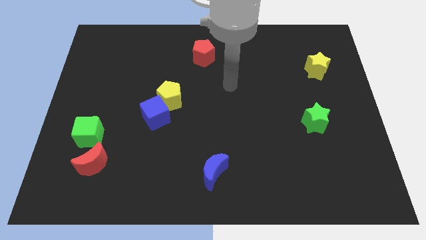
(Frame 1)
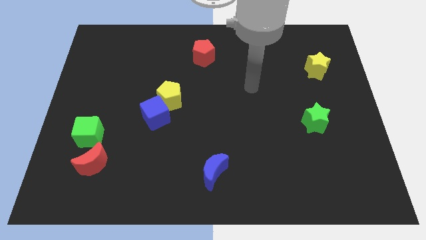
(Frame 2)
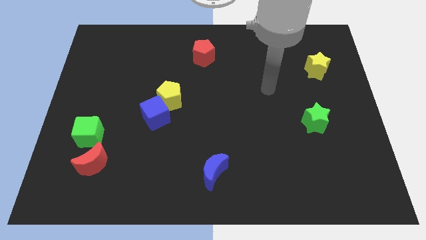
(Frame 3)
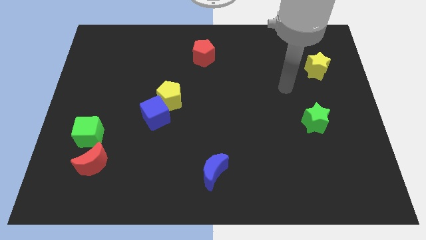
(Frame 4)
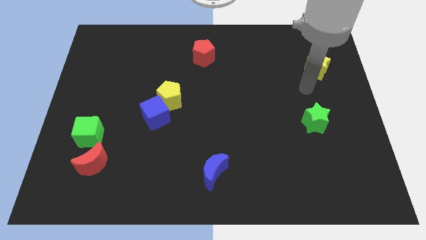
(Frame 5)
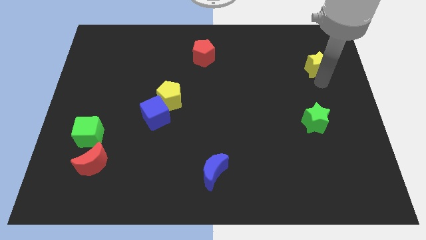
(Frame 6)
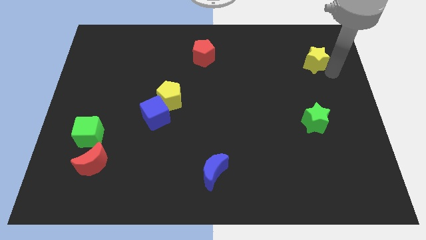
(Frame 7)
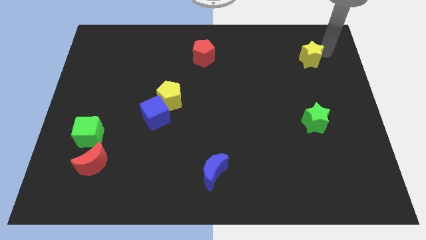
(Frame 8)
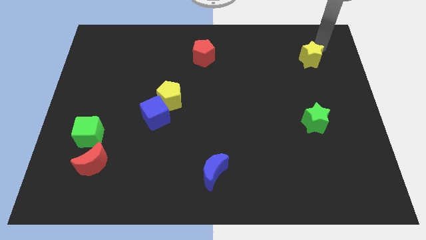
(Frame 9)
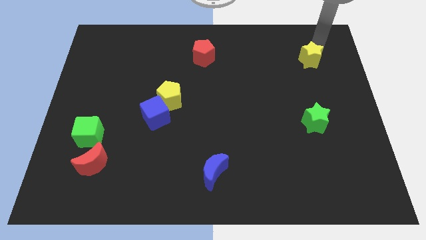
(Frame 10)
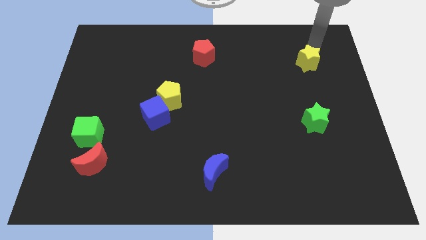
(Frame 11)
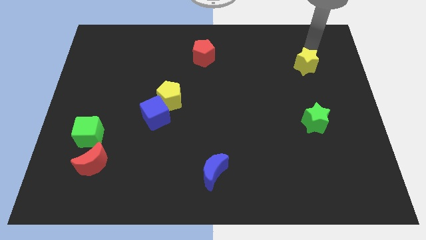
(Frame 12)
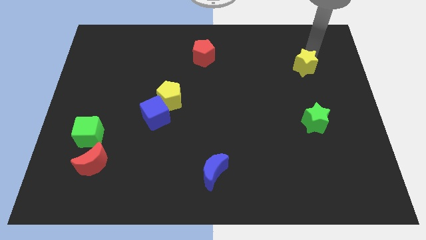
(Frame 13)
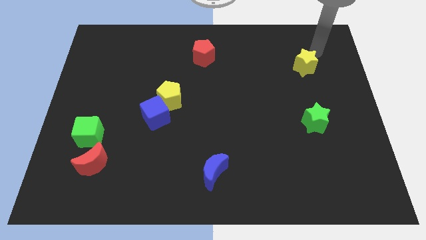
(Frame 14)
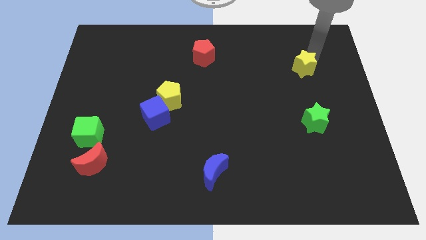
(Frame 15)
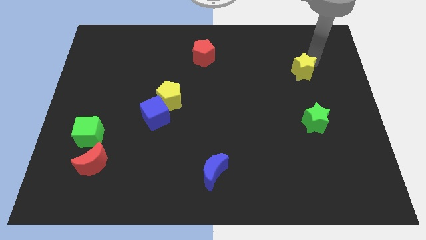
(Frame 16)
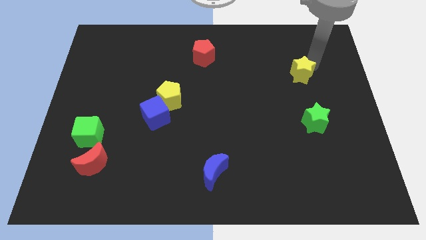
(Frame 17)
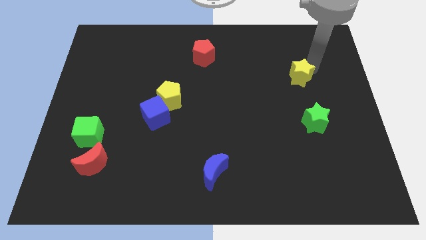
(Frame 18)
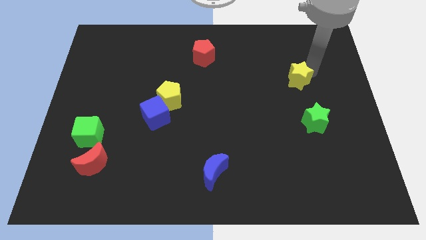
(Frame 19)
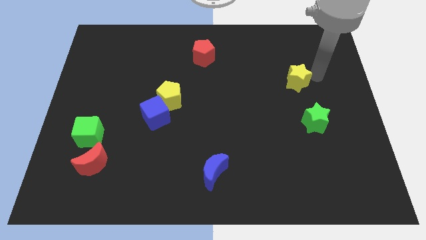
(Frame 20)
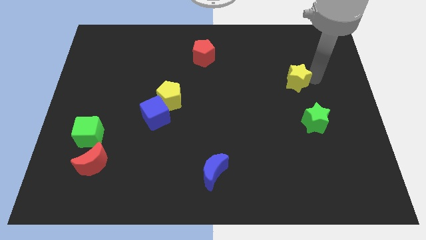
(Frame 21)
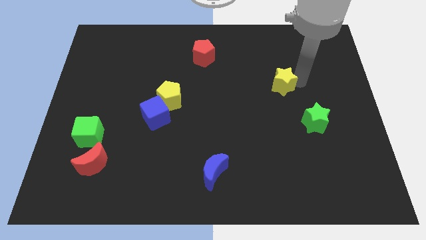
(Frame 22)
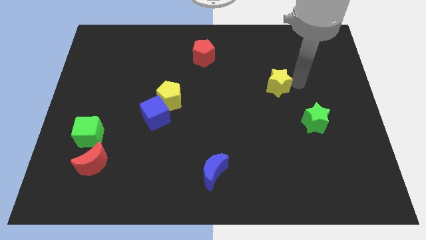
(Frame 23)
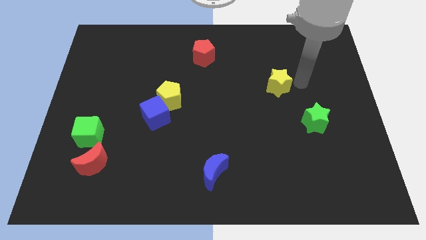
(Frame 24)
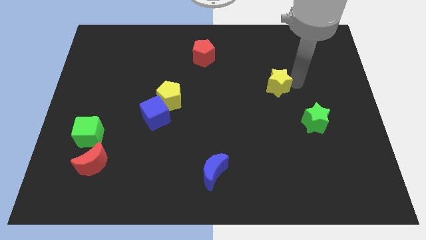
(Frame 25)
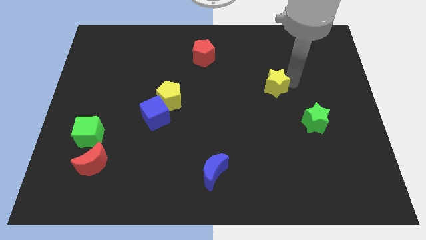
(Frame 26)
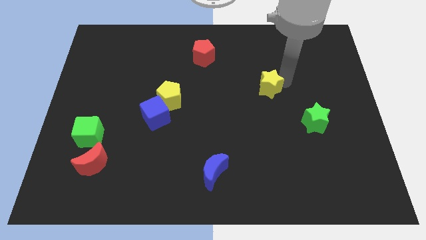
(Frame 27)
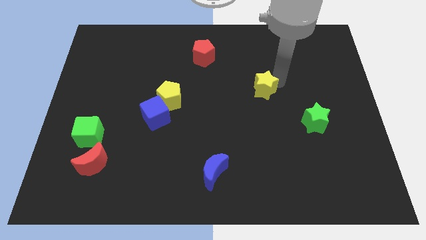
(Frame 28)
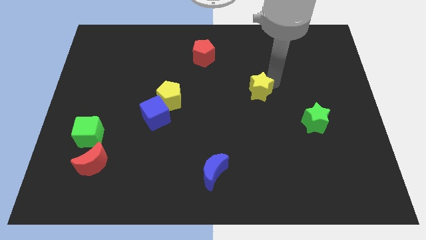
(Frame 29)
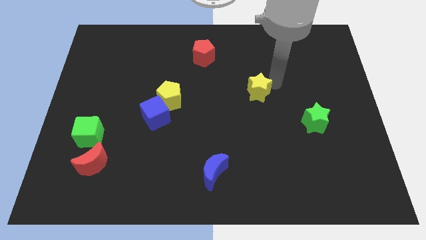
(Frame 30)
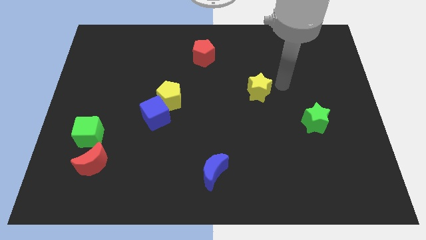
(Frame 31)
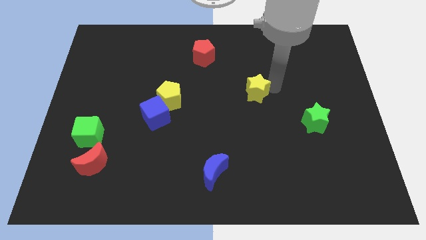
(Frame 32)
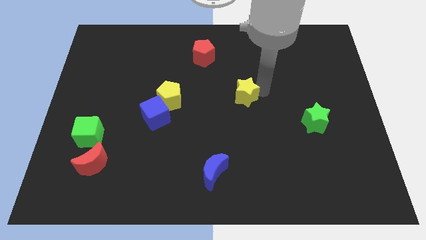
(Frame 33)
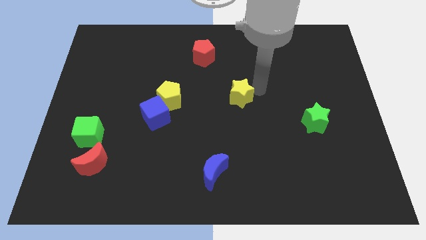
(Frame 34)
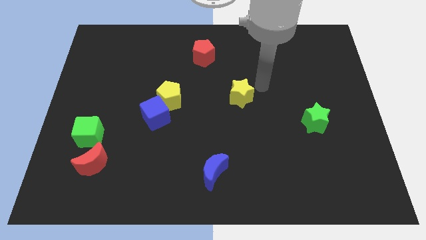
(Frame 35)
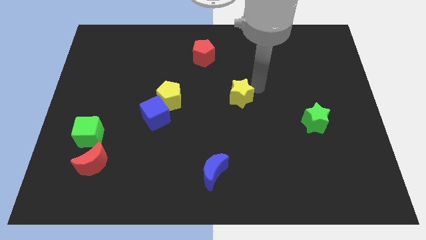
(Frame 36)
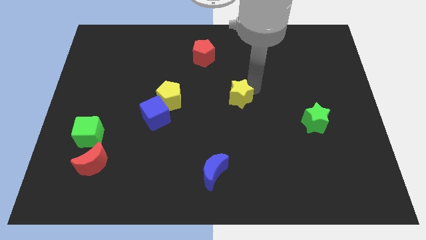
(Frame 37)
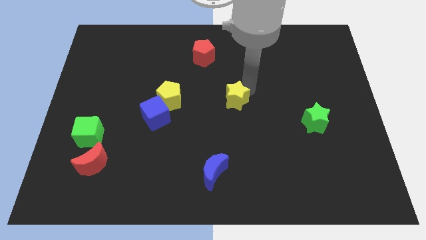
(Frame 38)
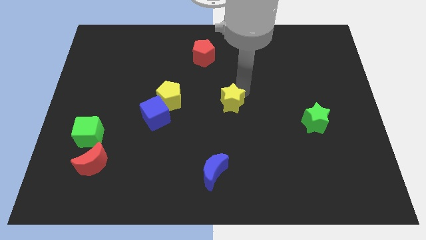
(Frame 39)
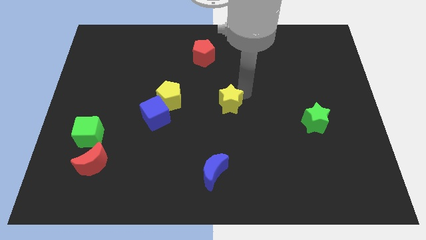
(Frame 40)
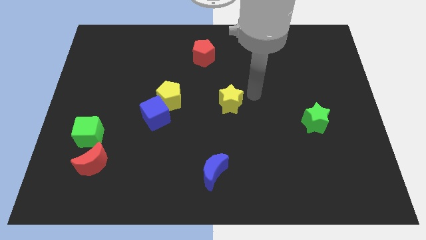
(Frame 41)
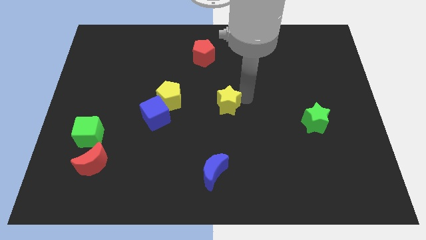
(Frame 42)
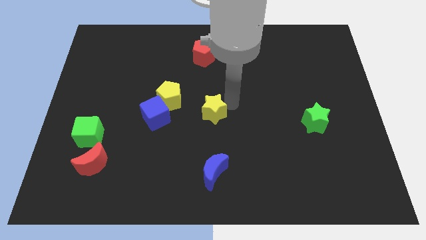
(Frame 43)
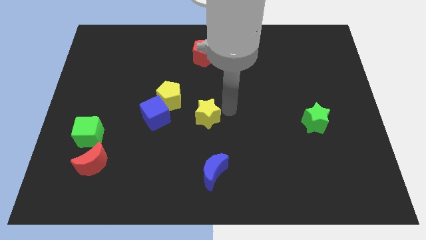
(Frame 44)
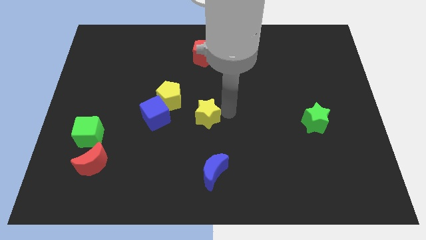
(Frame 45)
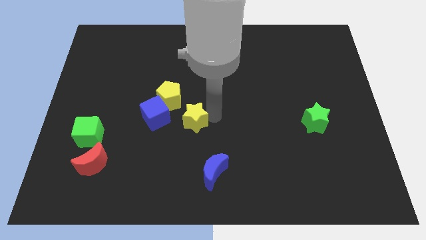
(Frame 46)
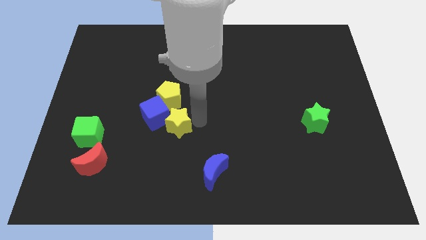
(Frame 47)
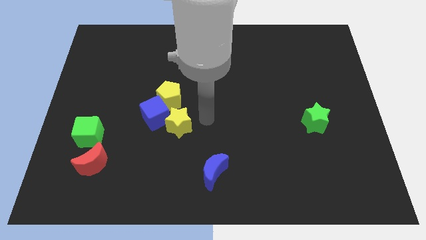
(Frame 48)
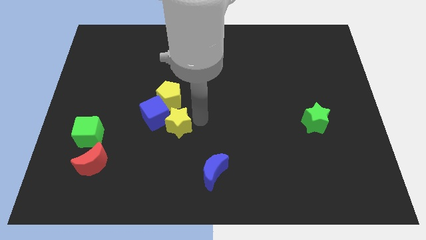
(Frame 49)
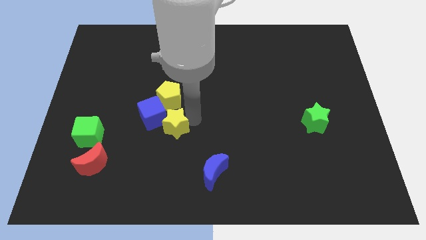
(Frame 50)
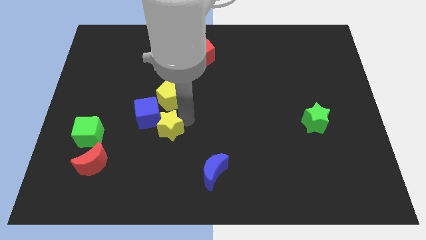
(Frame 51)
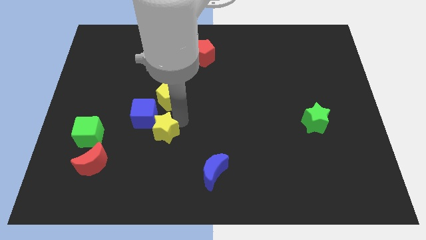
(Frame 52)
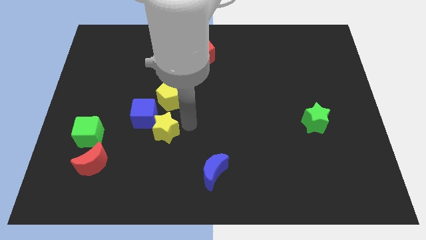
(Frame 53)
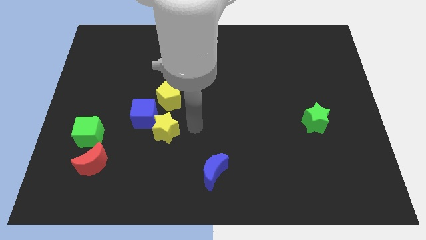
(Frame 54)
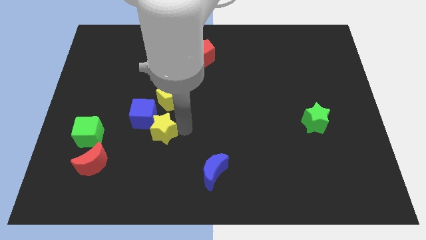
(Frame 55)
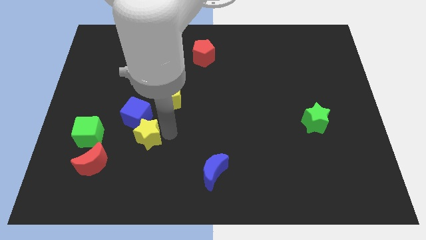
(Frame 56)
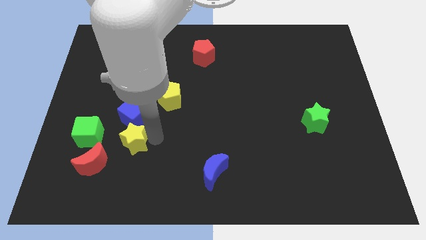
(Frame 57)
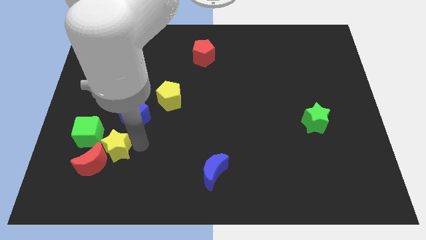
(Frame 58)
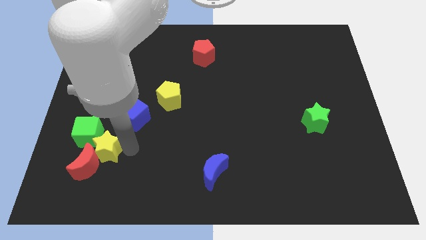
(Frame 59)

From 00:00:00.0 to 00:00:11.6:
move the yellow star close to the green cube

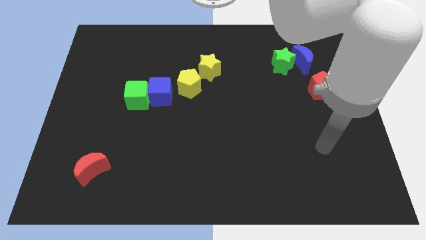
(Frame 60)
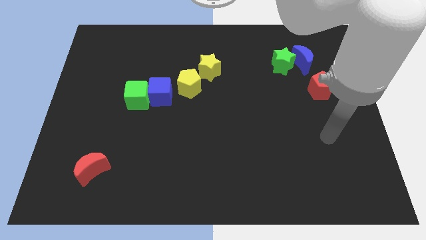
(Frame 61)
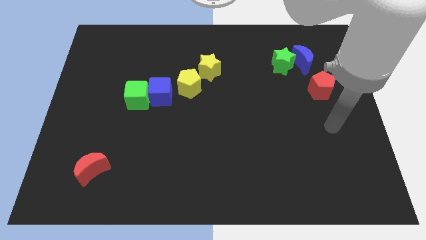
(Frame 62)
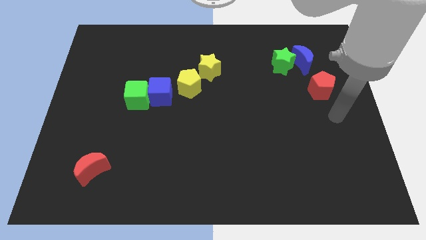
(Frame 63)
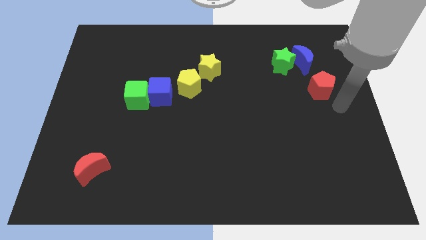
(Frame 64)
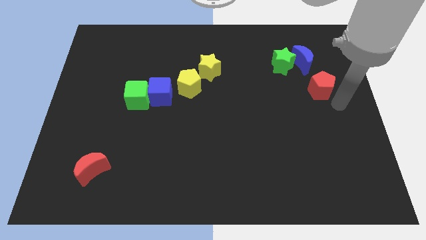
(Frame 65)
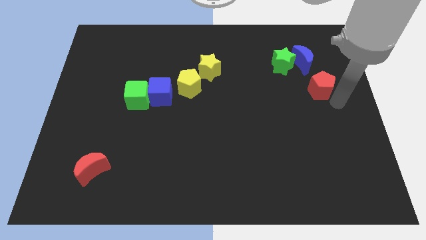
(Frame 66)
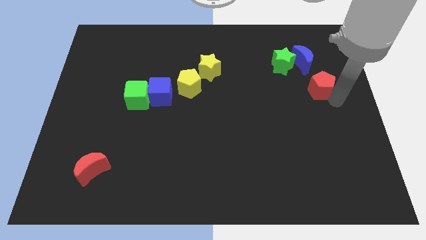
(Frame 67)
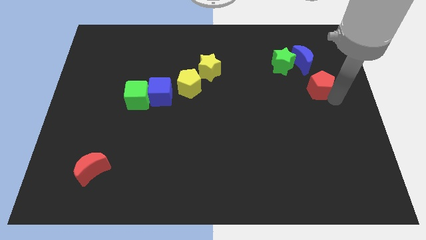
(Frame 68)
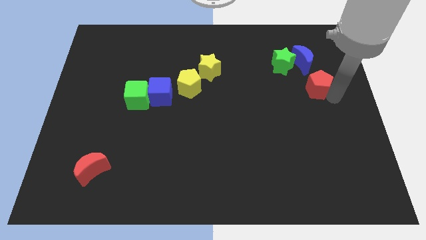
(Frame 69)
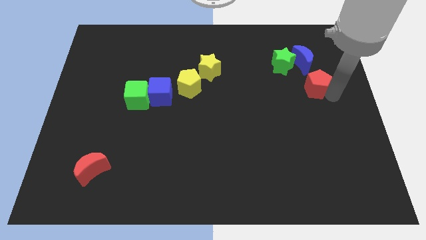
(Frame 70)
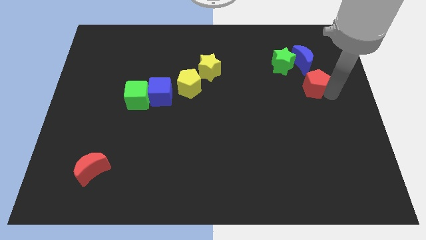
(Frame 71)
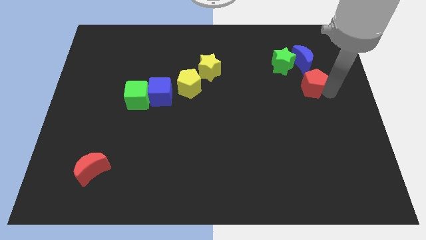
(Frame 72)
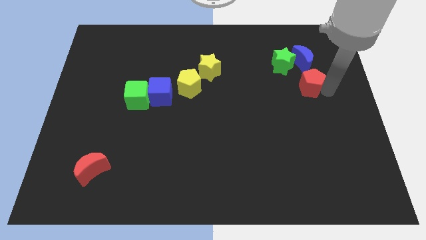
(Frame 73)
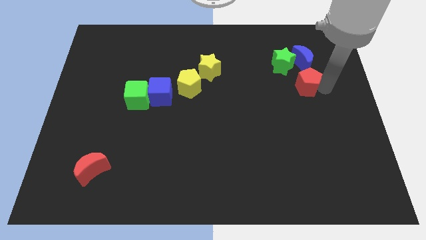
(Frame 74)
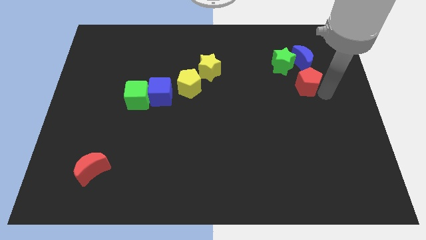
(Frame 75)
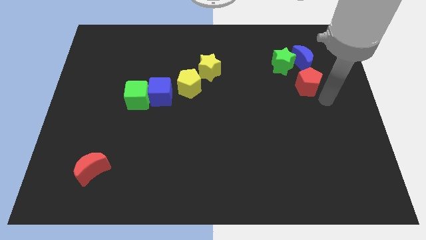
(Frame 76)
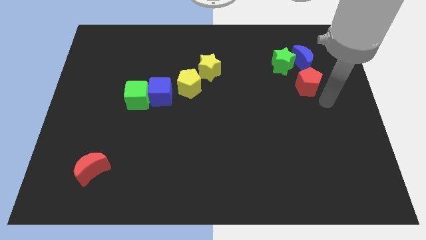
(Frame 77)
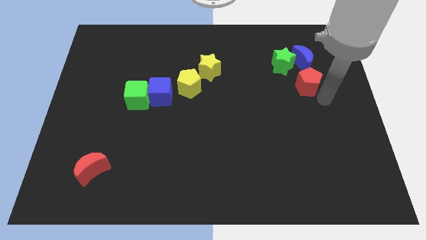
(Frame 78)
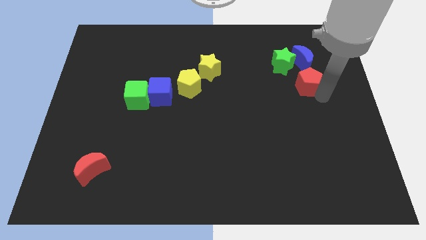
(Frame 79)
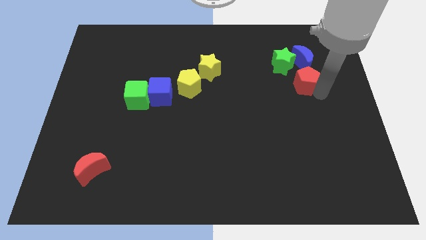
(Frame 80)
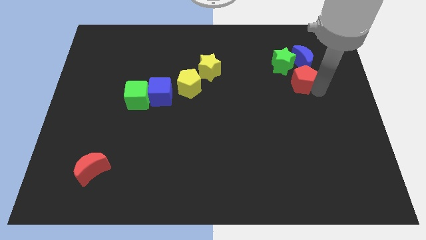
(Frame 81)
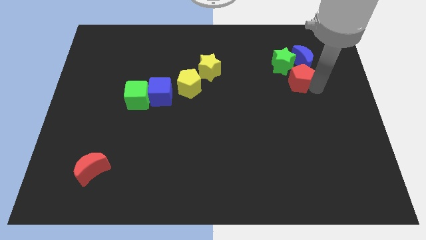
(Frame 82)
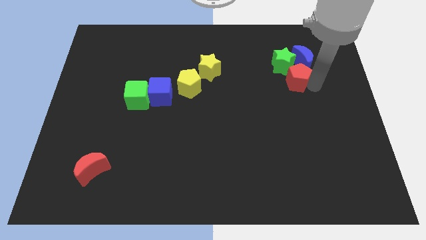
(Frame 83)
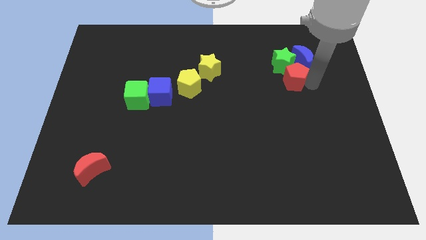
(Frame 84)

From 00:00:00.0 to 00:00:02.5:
move the red pentagon towards the green star
